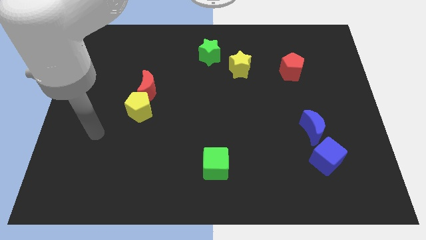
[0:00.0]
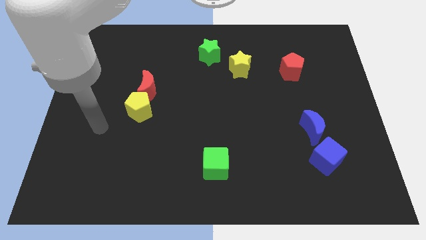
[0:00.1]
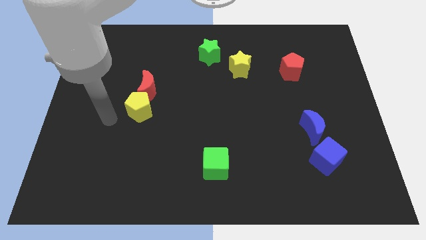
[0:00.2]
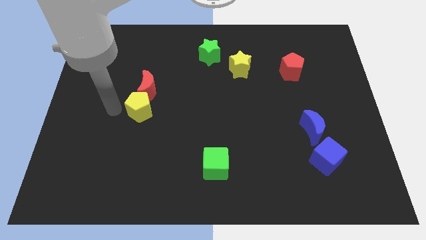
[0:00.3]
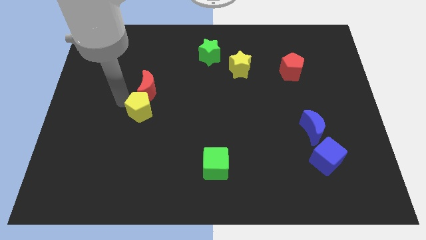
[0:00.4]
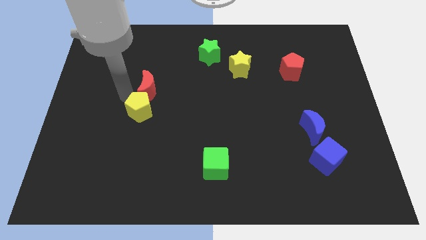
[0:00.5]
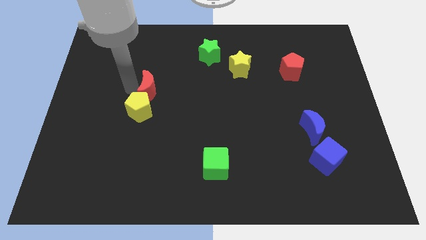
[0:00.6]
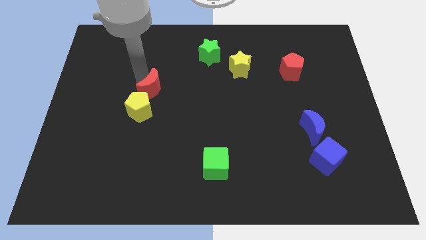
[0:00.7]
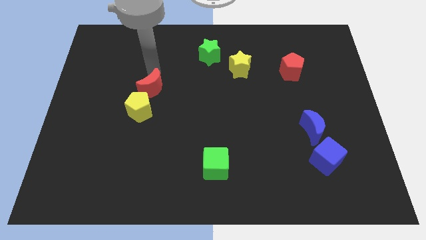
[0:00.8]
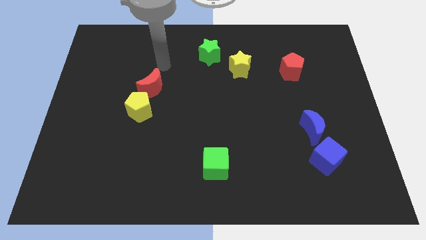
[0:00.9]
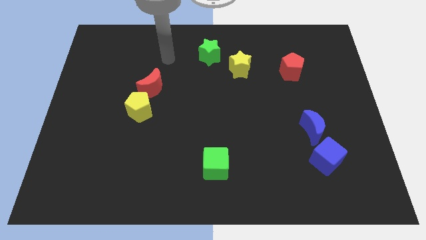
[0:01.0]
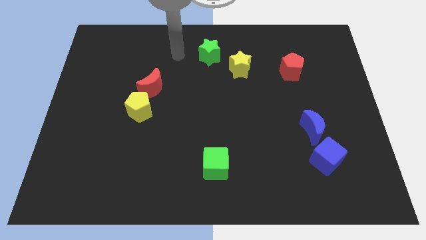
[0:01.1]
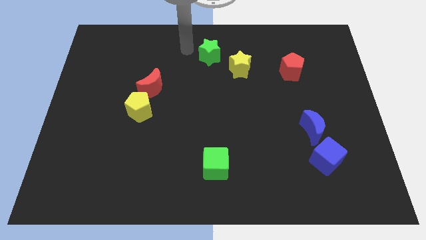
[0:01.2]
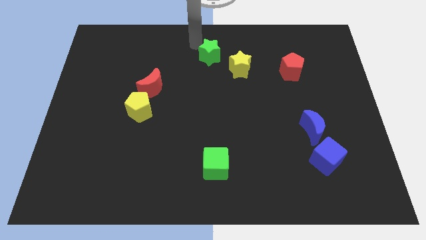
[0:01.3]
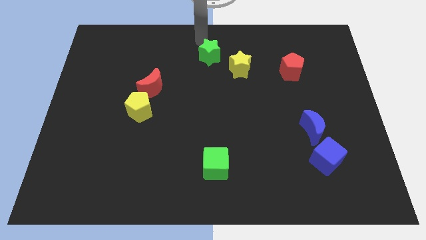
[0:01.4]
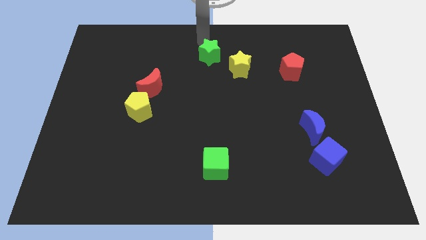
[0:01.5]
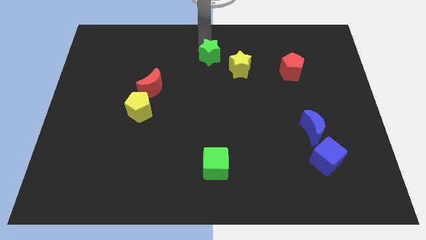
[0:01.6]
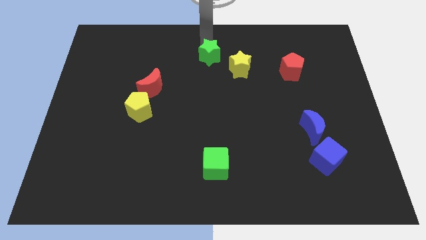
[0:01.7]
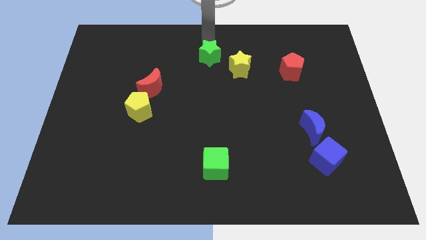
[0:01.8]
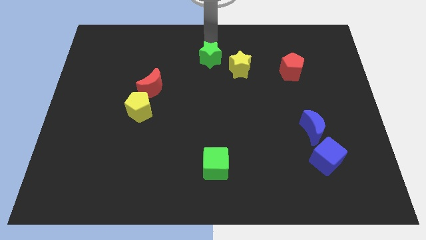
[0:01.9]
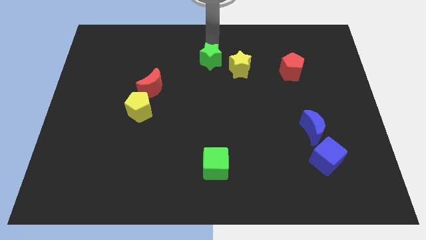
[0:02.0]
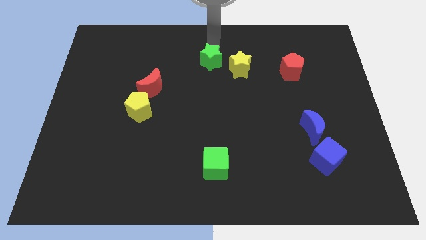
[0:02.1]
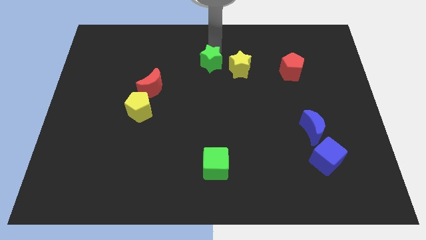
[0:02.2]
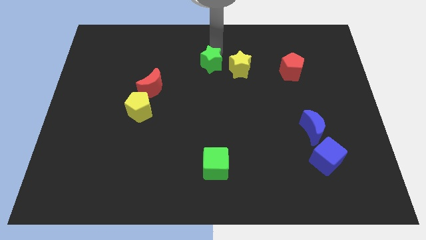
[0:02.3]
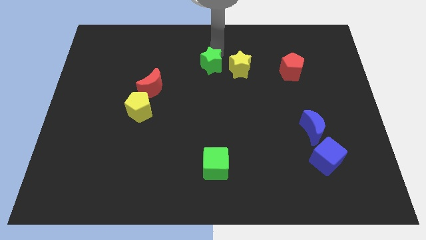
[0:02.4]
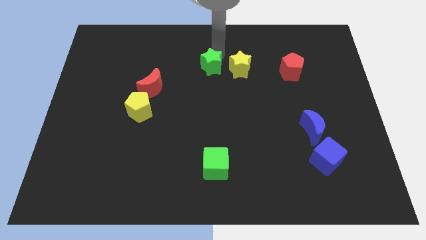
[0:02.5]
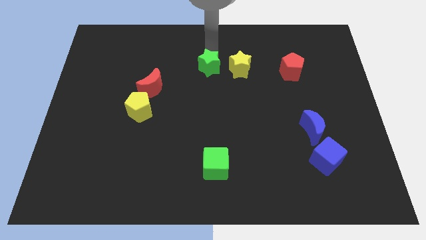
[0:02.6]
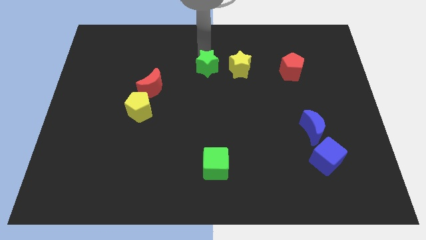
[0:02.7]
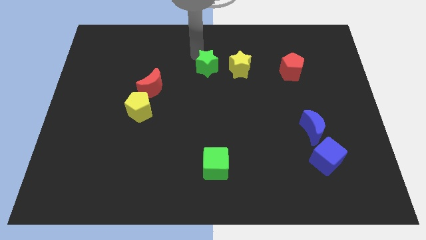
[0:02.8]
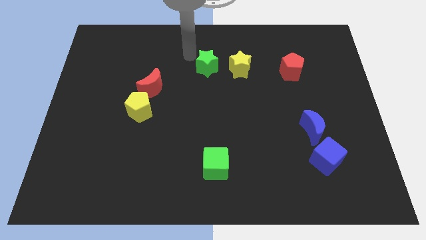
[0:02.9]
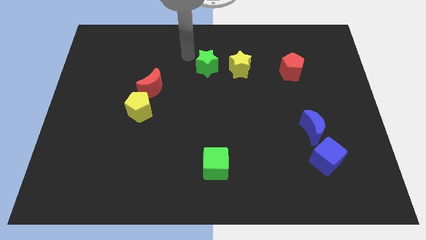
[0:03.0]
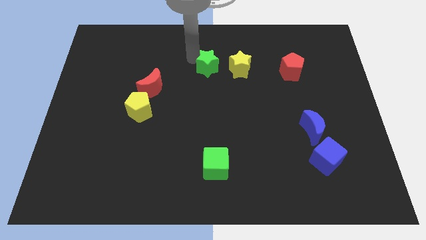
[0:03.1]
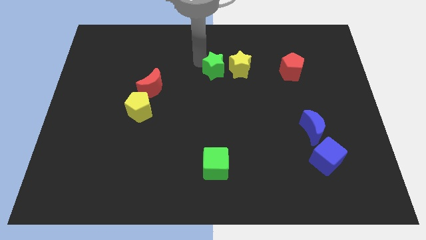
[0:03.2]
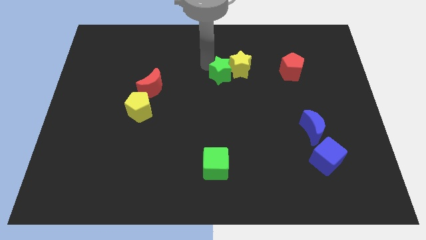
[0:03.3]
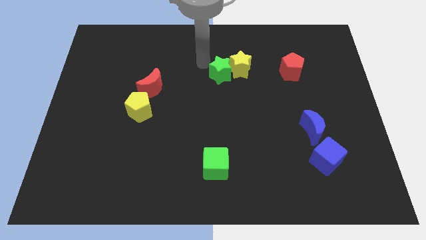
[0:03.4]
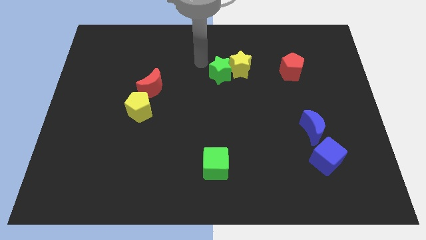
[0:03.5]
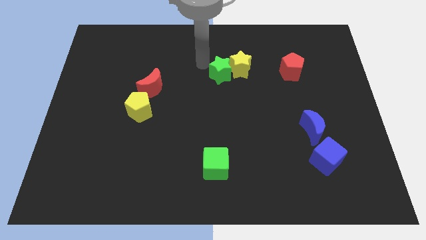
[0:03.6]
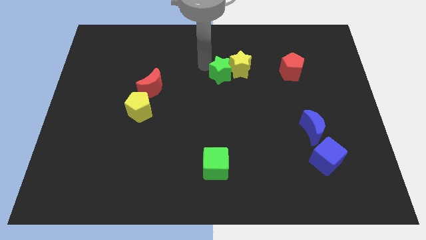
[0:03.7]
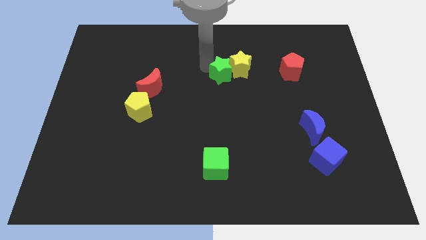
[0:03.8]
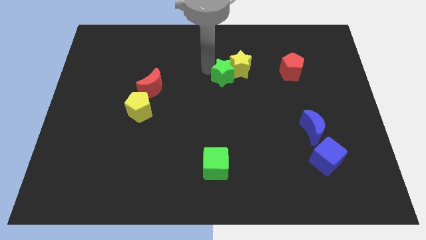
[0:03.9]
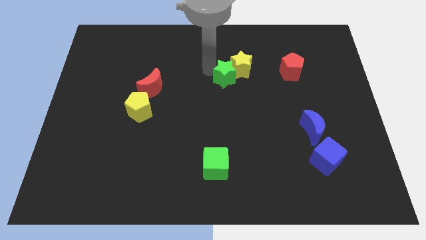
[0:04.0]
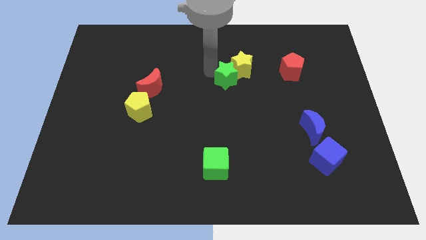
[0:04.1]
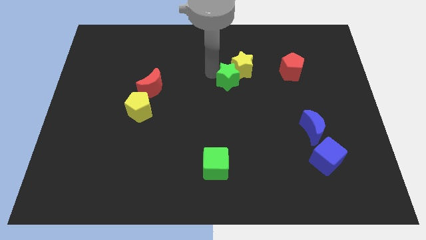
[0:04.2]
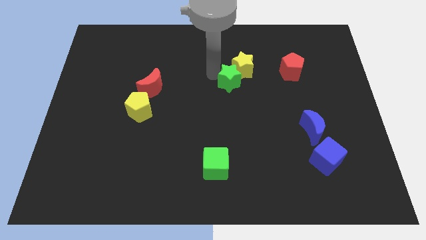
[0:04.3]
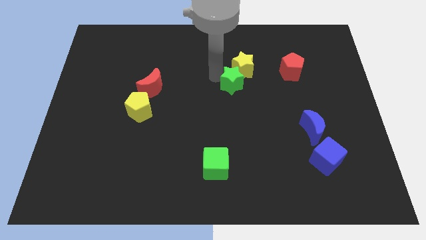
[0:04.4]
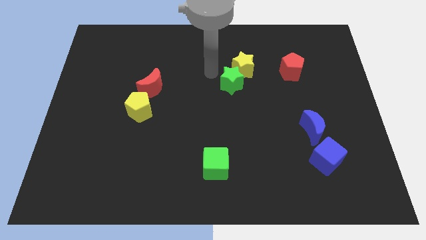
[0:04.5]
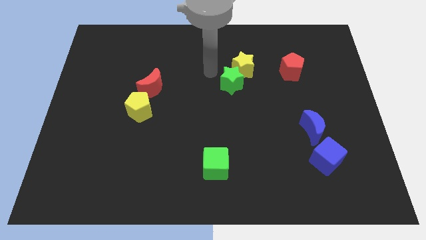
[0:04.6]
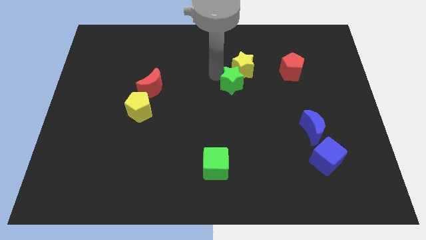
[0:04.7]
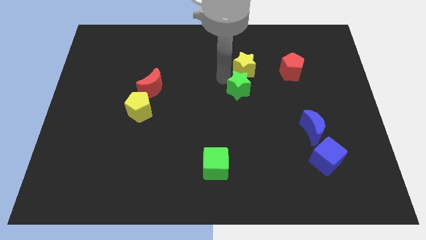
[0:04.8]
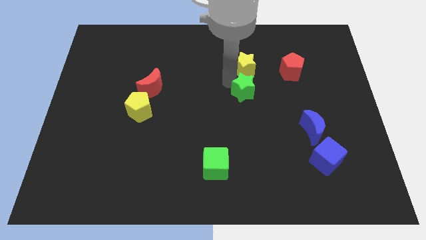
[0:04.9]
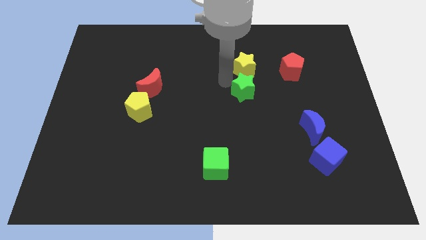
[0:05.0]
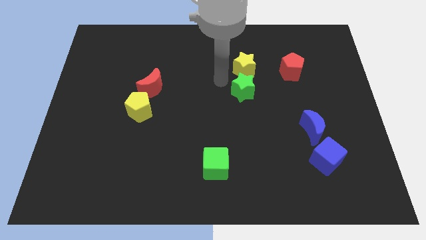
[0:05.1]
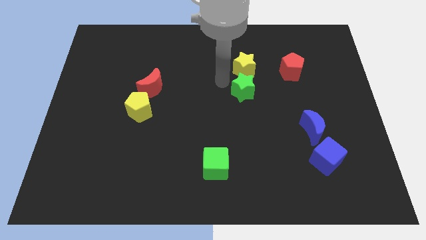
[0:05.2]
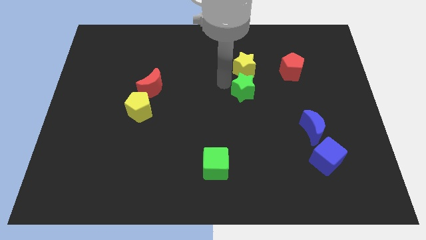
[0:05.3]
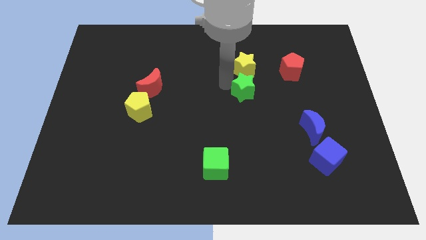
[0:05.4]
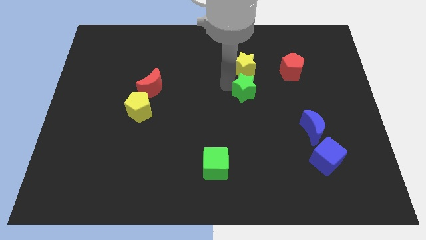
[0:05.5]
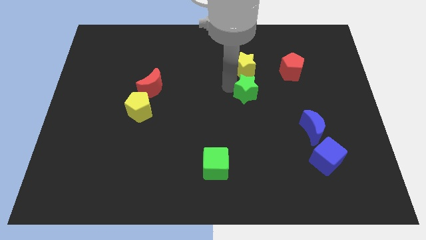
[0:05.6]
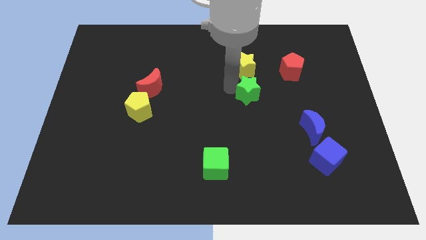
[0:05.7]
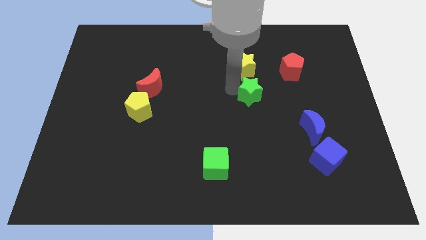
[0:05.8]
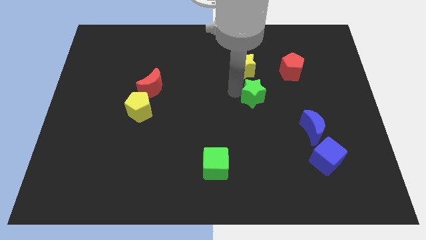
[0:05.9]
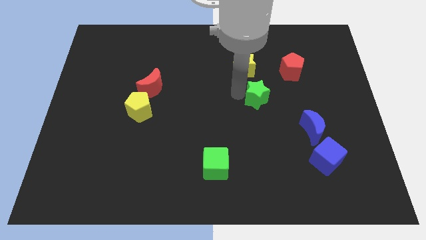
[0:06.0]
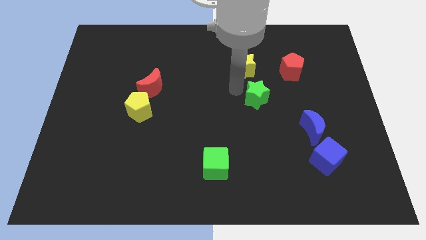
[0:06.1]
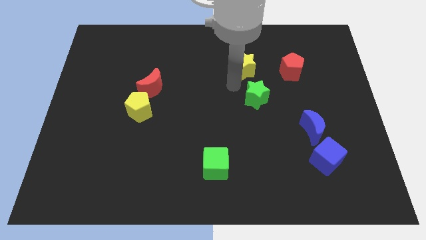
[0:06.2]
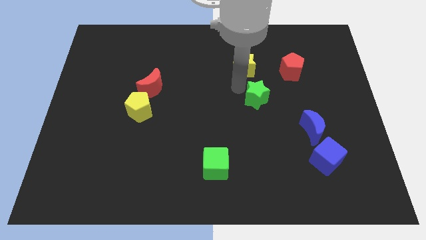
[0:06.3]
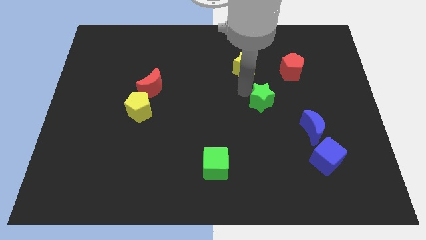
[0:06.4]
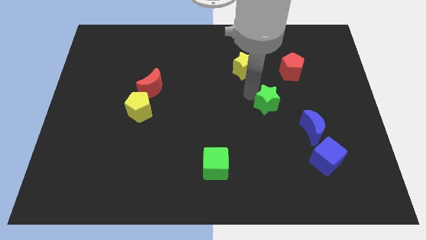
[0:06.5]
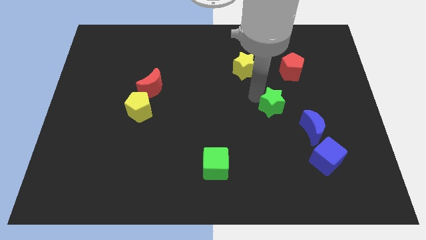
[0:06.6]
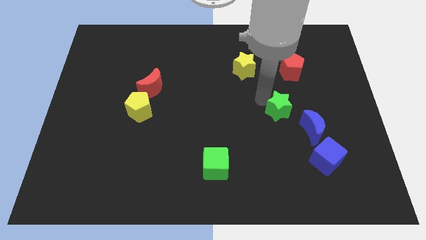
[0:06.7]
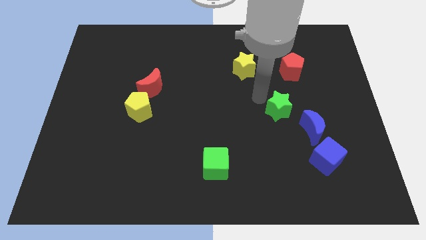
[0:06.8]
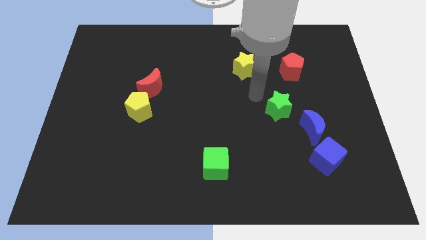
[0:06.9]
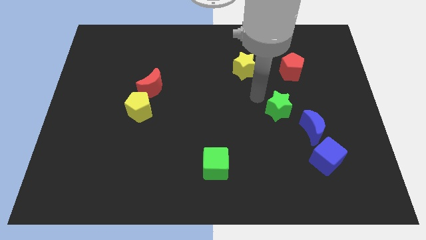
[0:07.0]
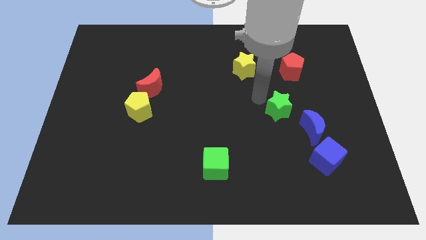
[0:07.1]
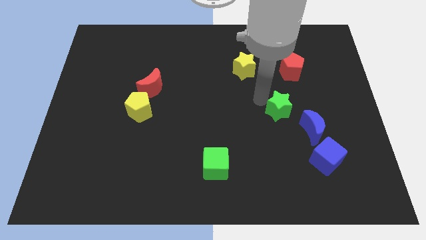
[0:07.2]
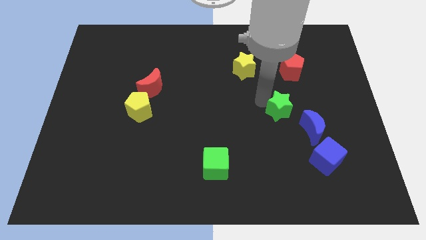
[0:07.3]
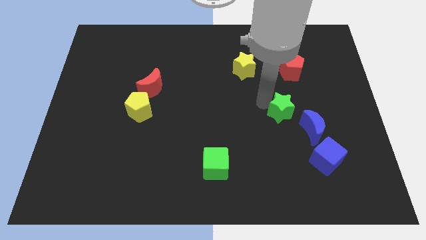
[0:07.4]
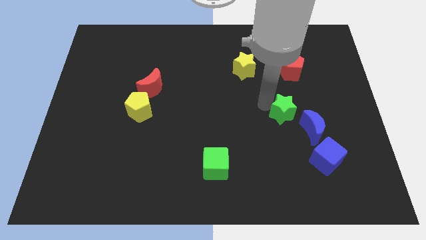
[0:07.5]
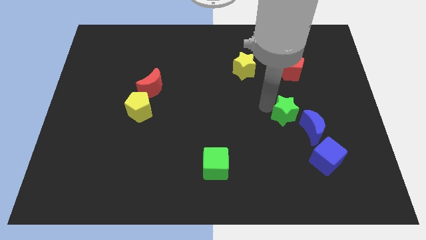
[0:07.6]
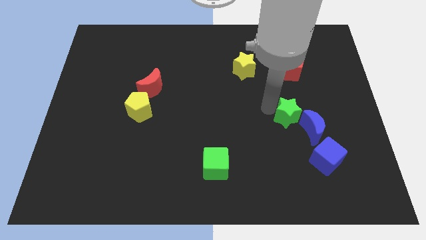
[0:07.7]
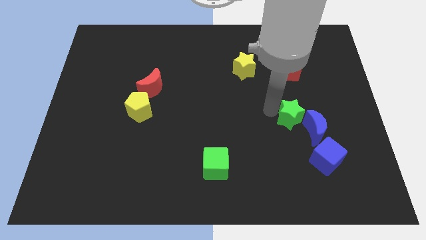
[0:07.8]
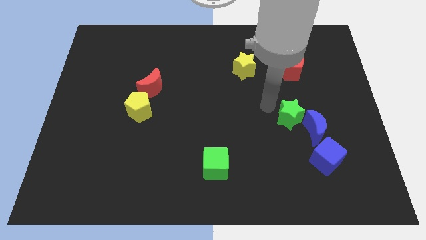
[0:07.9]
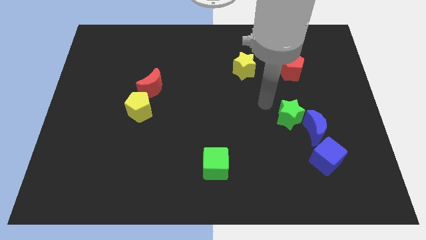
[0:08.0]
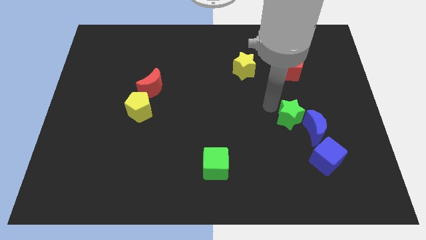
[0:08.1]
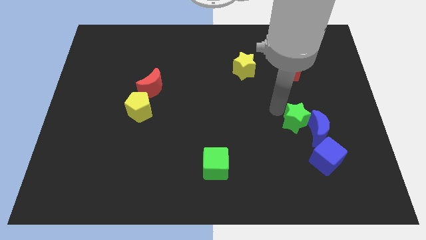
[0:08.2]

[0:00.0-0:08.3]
slide the green star next to the blue moon
